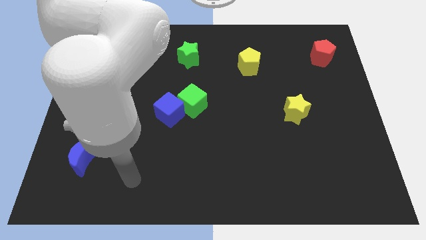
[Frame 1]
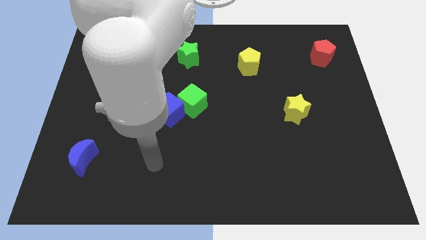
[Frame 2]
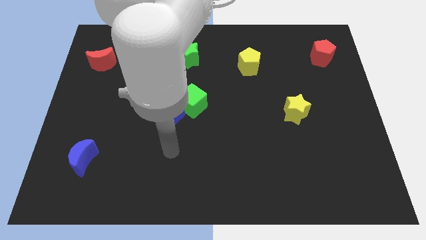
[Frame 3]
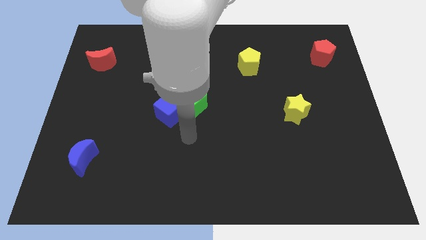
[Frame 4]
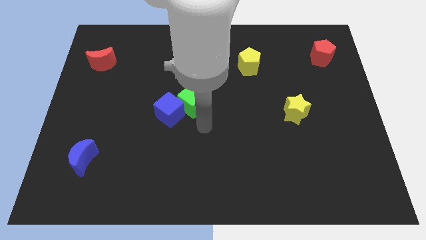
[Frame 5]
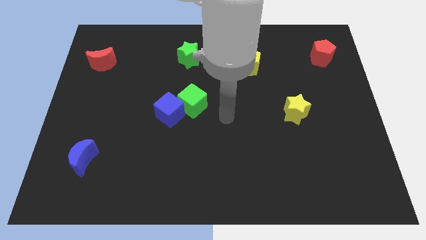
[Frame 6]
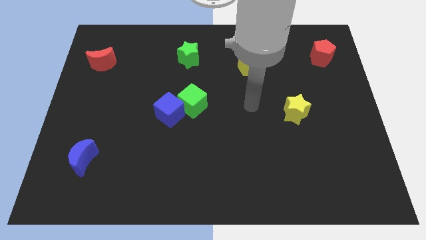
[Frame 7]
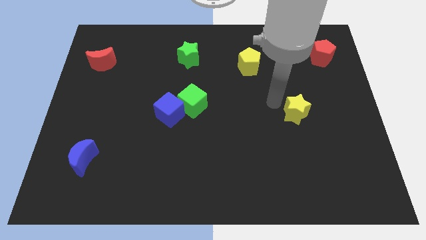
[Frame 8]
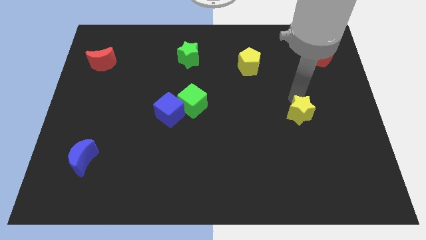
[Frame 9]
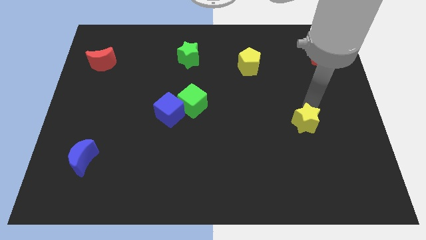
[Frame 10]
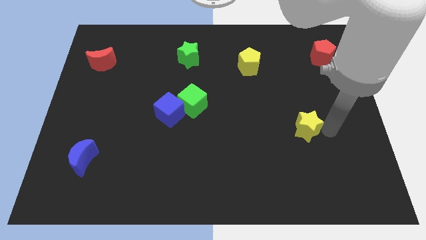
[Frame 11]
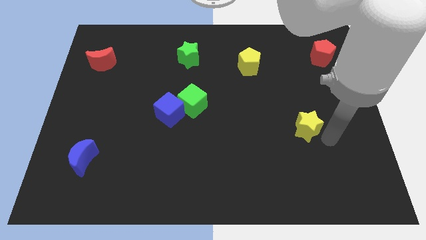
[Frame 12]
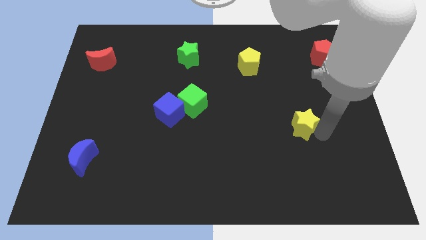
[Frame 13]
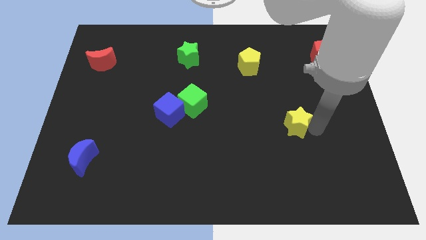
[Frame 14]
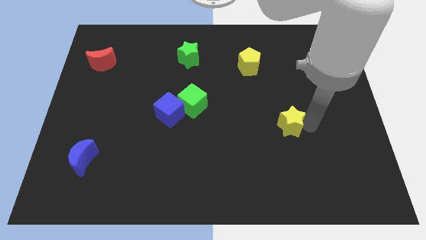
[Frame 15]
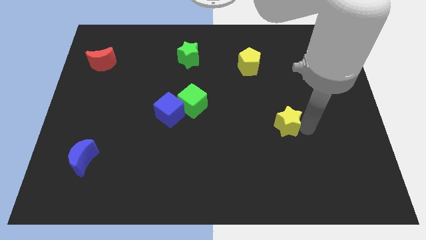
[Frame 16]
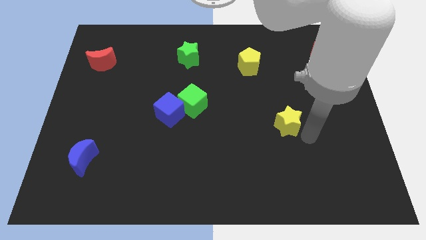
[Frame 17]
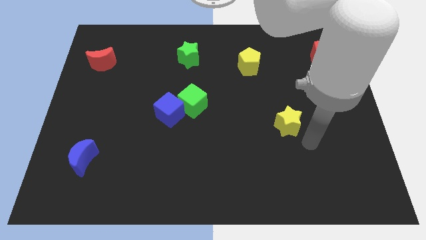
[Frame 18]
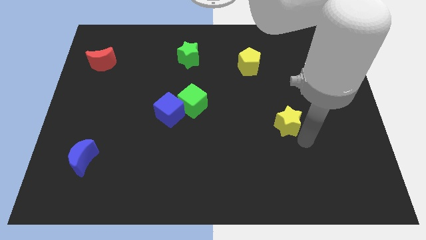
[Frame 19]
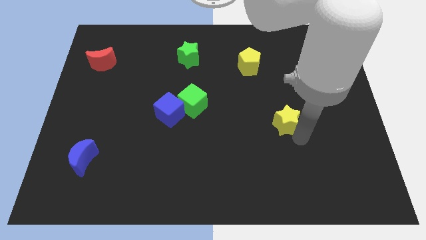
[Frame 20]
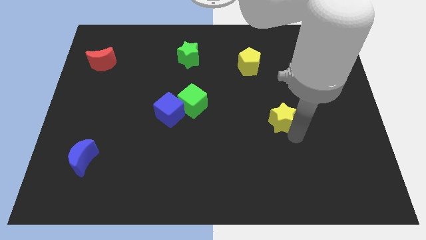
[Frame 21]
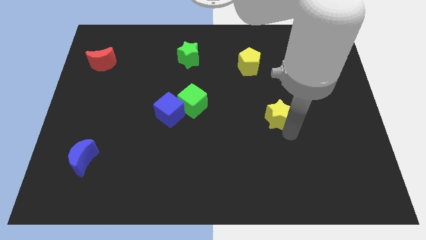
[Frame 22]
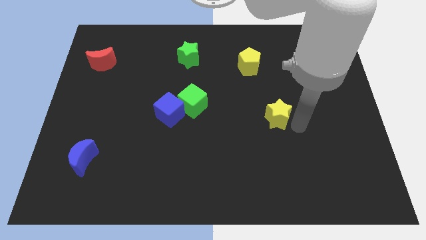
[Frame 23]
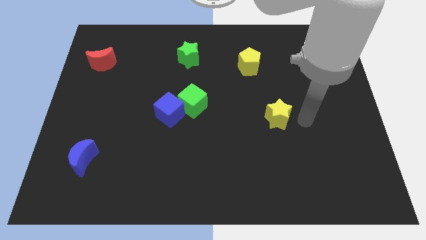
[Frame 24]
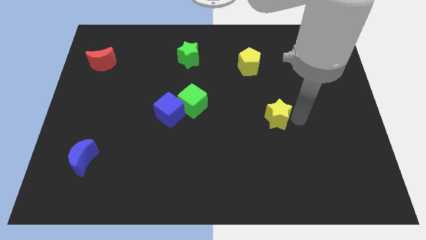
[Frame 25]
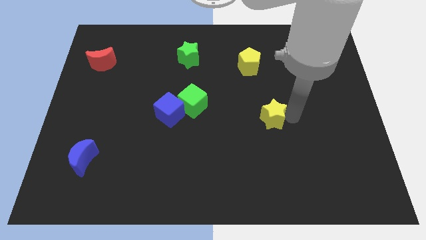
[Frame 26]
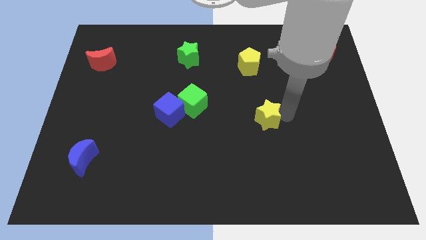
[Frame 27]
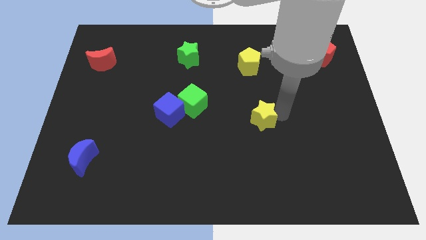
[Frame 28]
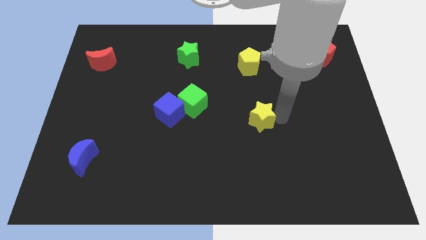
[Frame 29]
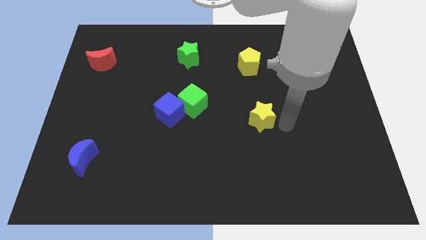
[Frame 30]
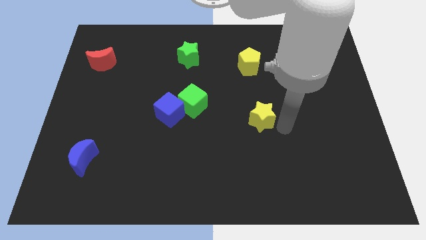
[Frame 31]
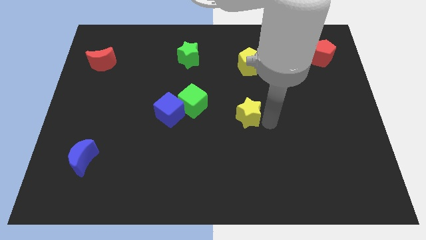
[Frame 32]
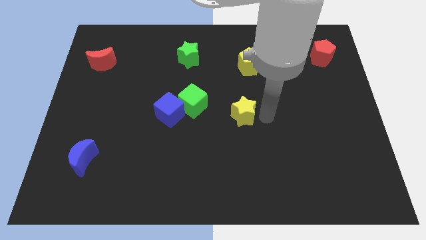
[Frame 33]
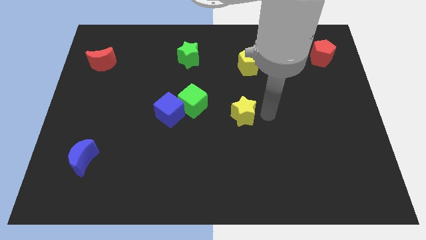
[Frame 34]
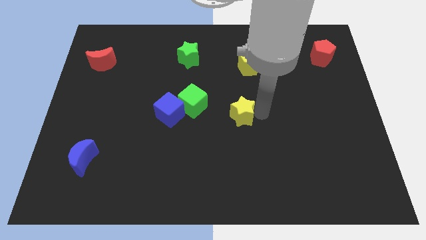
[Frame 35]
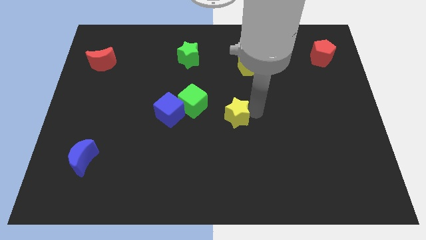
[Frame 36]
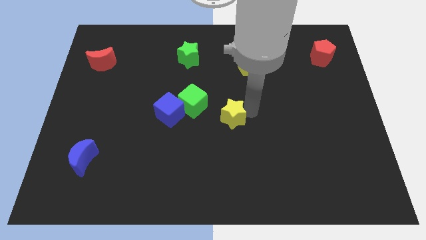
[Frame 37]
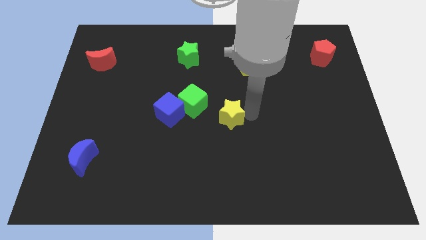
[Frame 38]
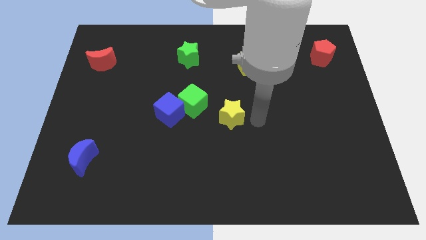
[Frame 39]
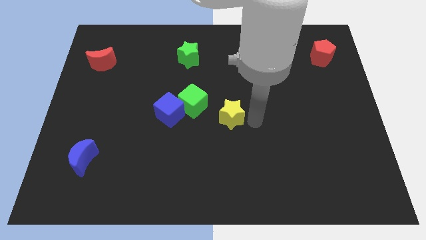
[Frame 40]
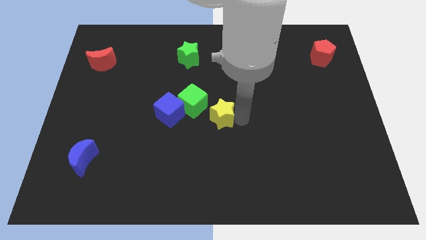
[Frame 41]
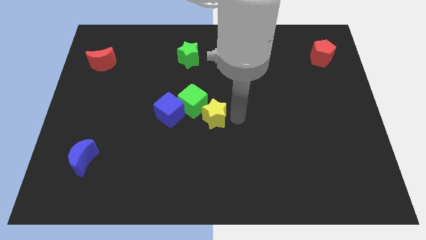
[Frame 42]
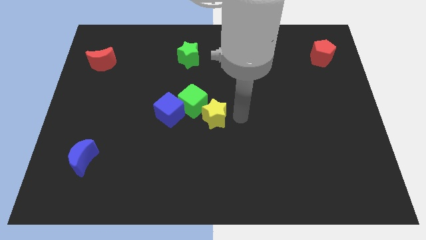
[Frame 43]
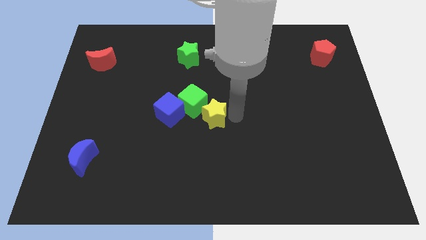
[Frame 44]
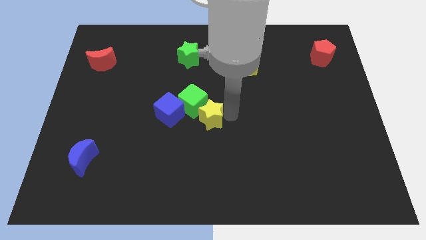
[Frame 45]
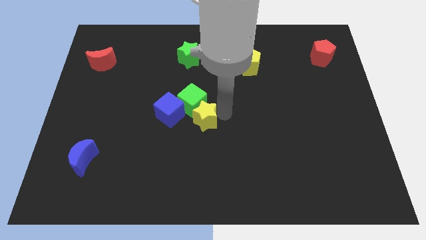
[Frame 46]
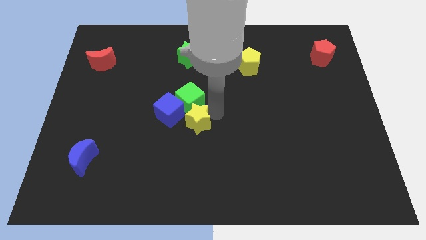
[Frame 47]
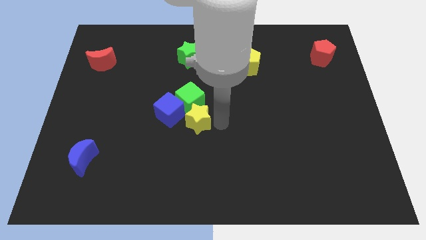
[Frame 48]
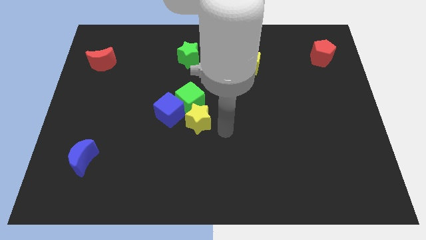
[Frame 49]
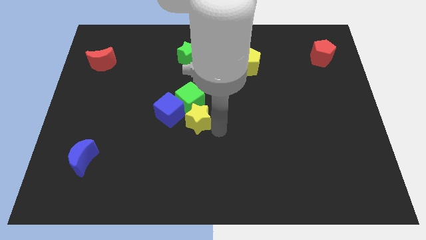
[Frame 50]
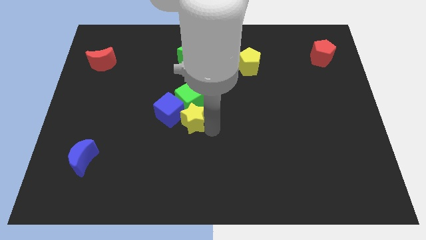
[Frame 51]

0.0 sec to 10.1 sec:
slide the yellow star to the blue cube

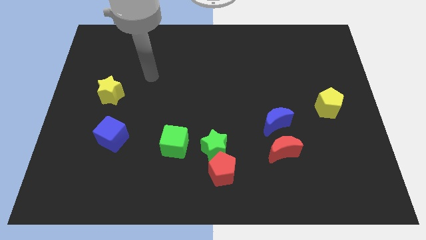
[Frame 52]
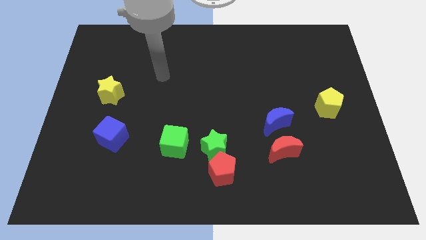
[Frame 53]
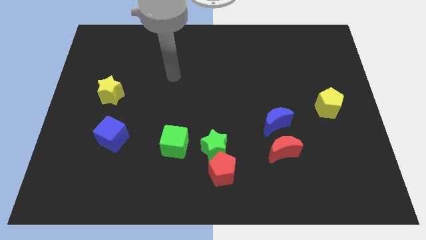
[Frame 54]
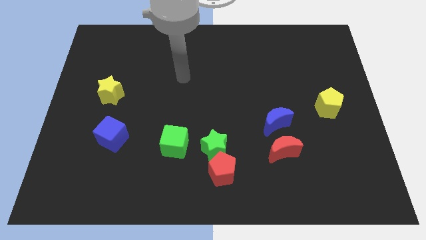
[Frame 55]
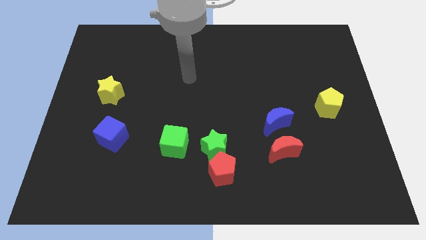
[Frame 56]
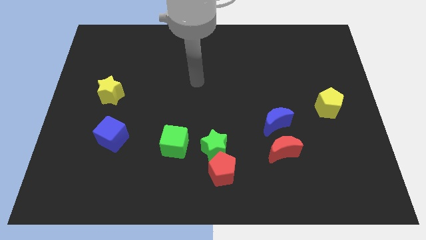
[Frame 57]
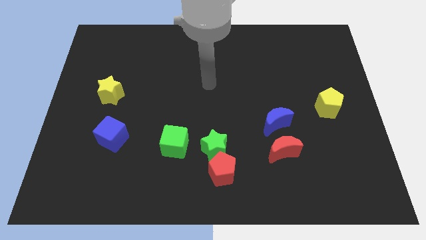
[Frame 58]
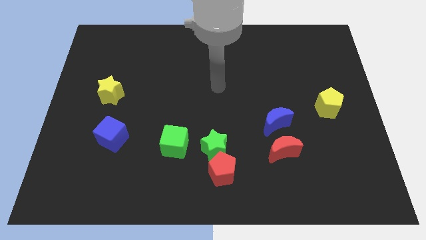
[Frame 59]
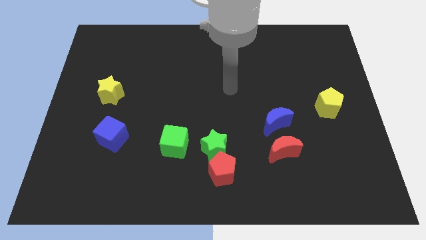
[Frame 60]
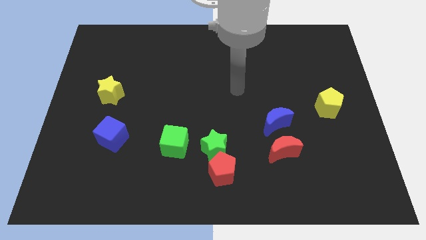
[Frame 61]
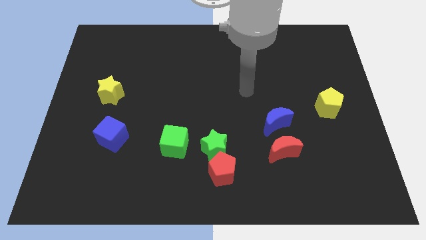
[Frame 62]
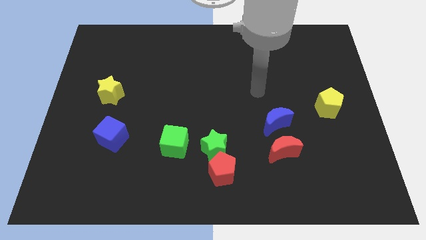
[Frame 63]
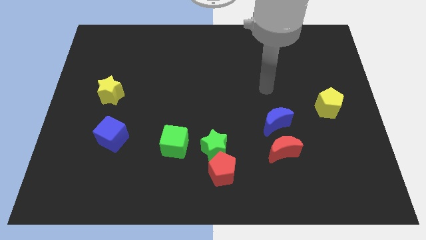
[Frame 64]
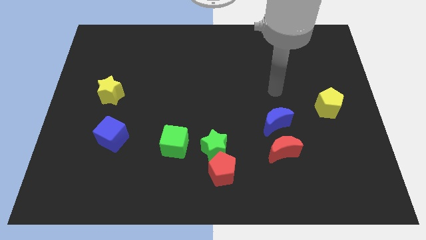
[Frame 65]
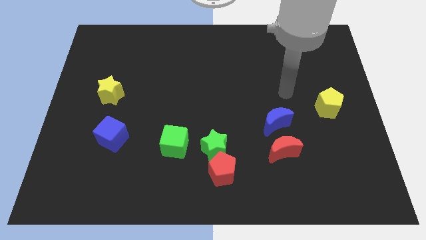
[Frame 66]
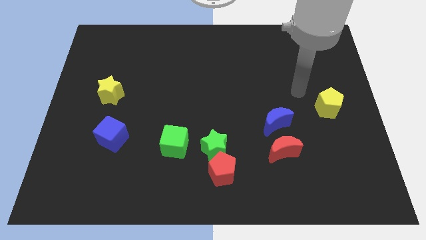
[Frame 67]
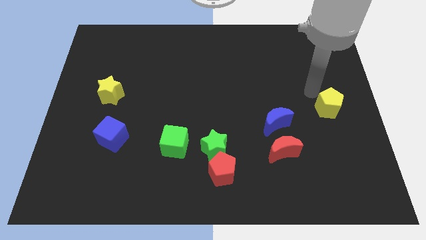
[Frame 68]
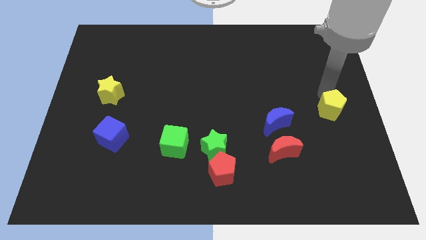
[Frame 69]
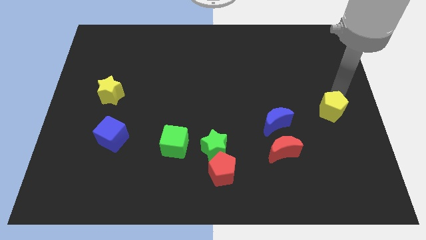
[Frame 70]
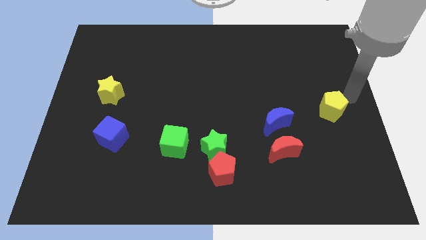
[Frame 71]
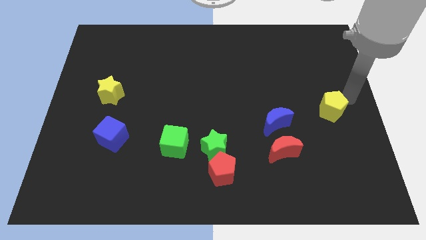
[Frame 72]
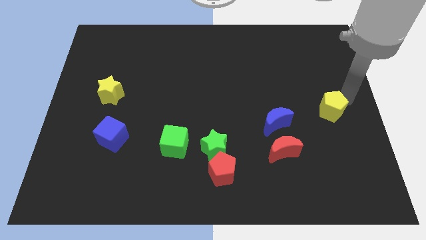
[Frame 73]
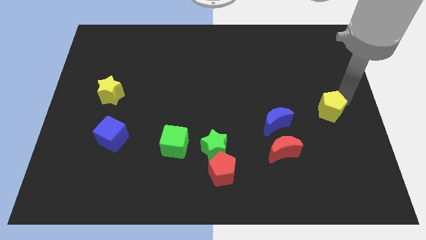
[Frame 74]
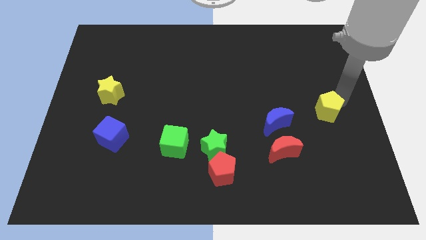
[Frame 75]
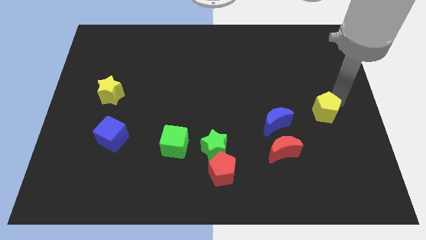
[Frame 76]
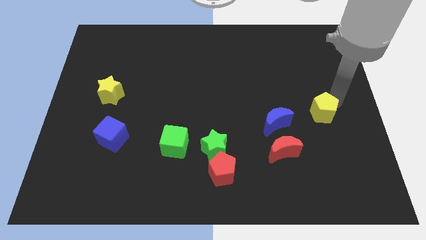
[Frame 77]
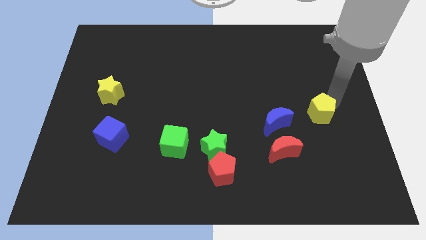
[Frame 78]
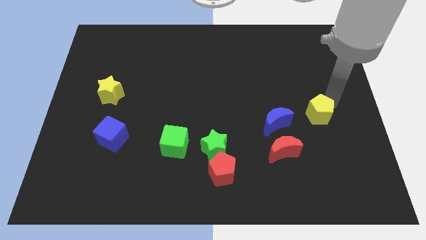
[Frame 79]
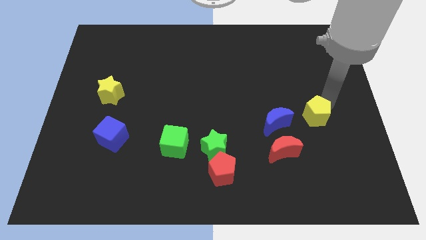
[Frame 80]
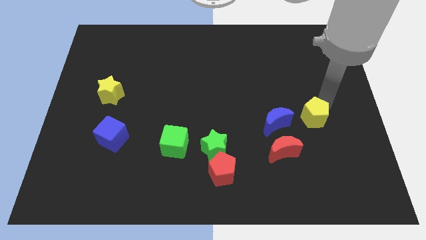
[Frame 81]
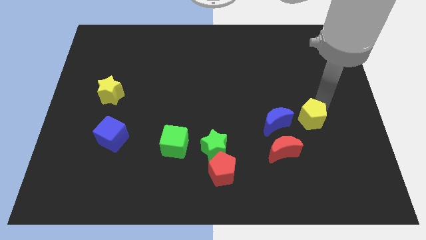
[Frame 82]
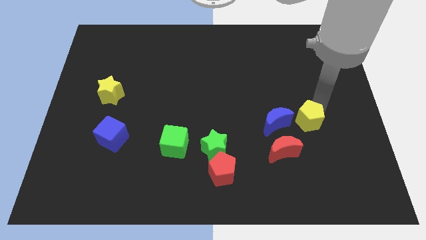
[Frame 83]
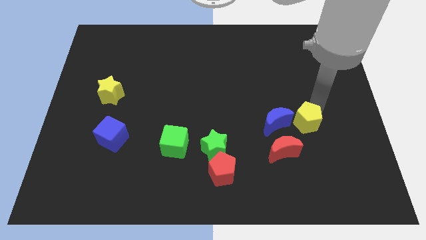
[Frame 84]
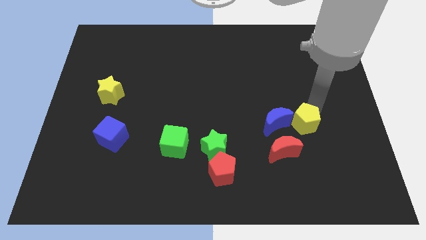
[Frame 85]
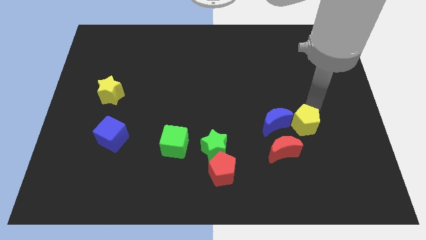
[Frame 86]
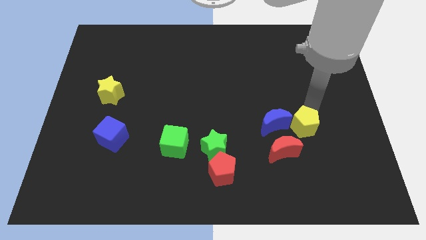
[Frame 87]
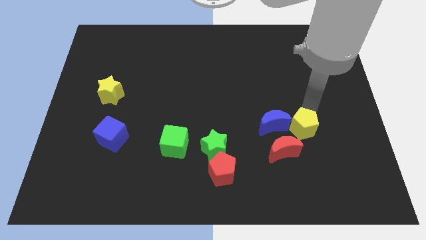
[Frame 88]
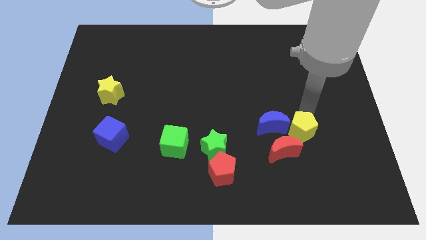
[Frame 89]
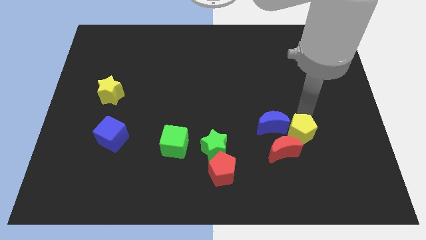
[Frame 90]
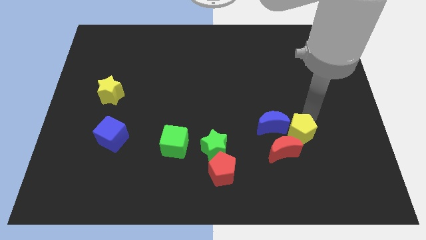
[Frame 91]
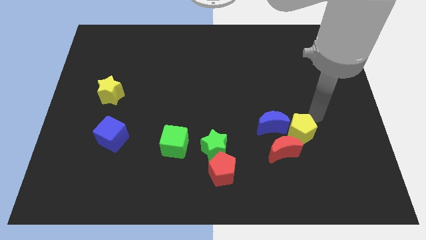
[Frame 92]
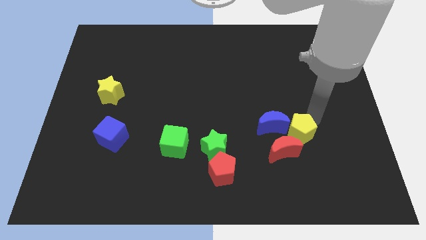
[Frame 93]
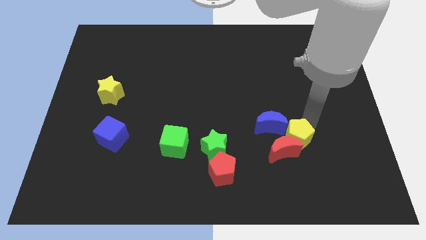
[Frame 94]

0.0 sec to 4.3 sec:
put the yellow pentagon close to the red moon
